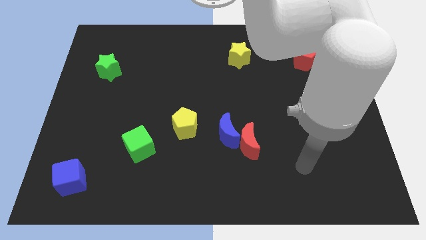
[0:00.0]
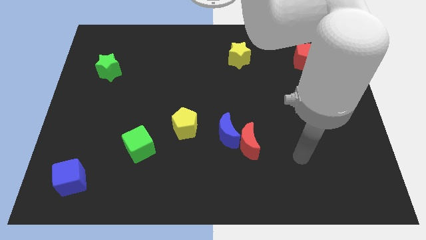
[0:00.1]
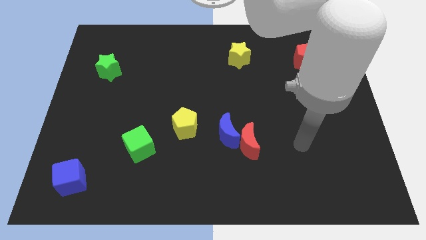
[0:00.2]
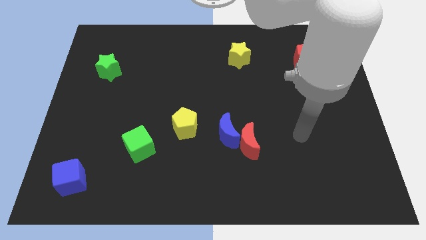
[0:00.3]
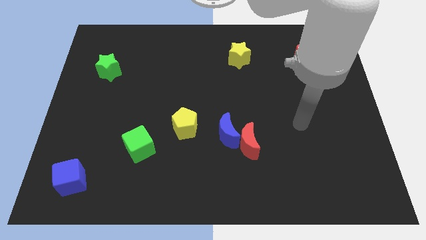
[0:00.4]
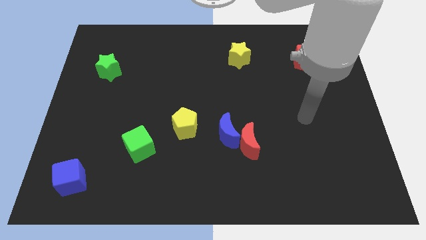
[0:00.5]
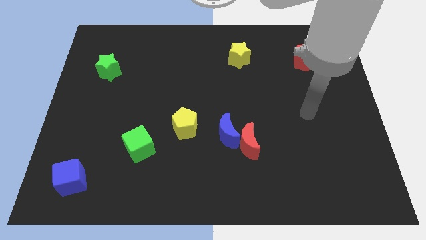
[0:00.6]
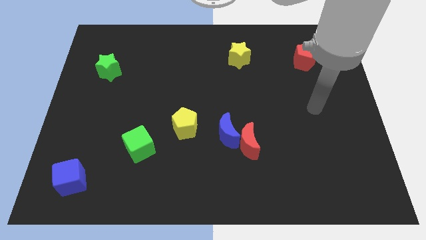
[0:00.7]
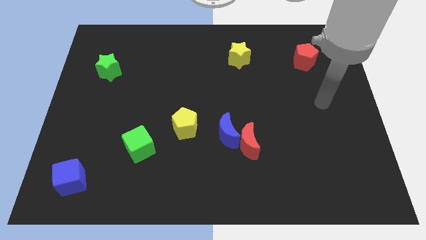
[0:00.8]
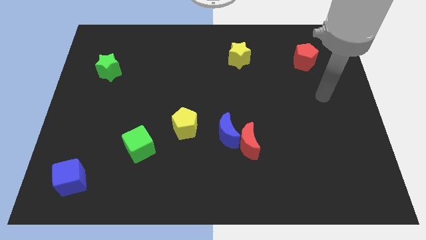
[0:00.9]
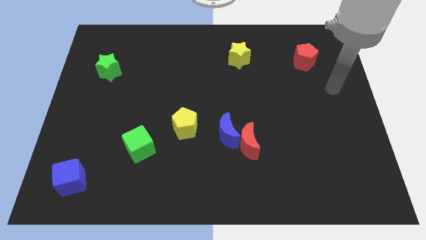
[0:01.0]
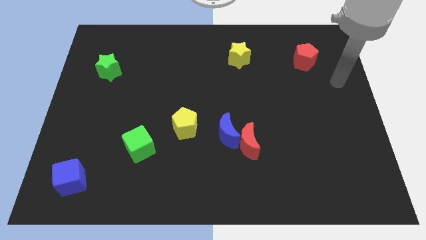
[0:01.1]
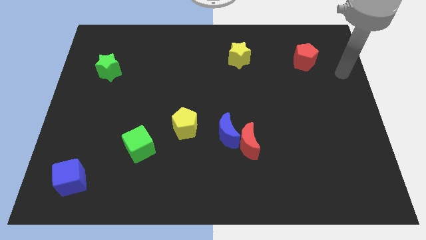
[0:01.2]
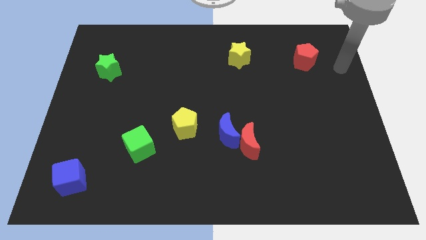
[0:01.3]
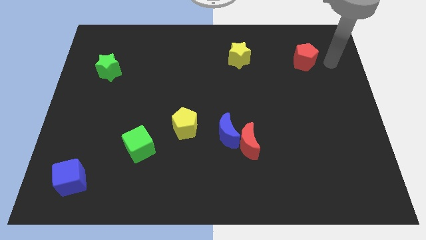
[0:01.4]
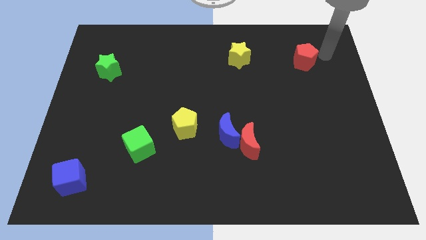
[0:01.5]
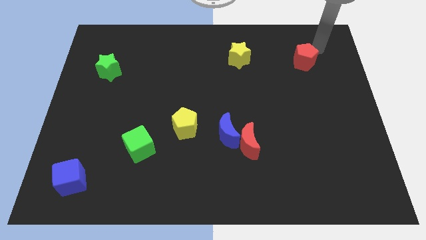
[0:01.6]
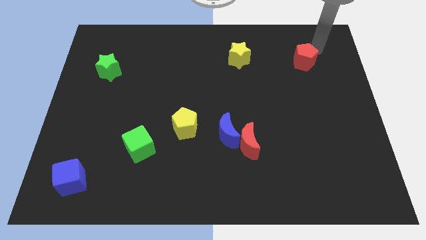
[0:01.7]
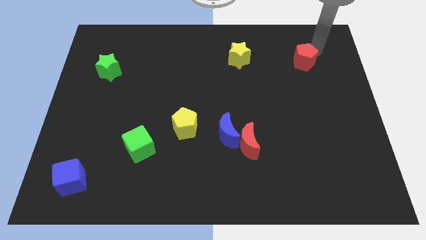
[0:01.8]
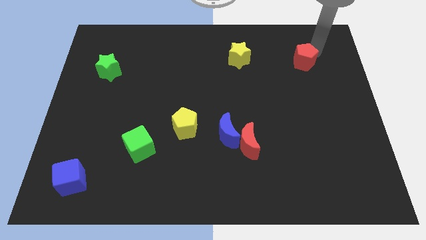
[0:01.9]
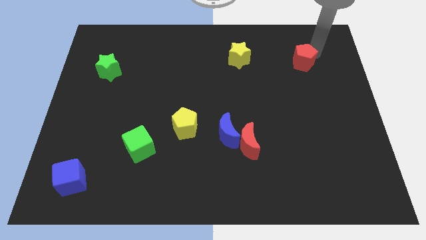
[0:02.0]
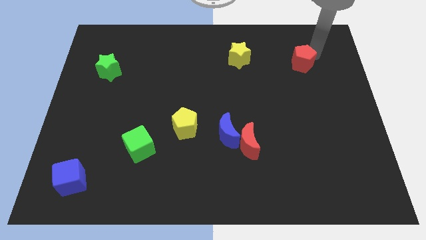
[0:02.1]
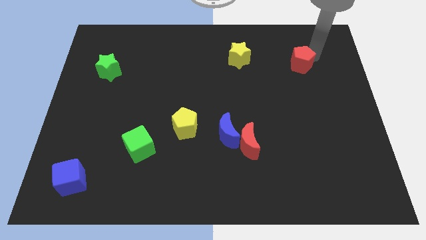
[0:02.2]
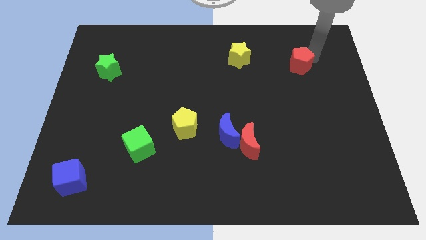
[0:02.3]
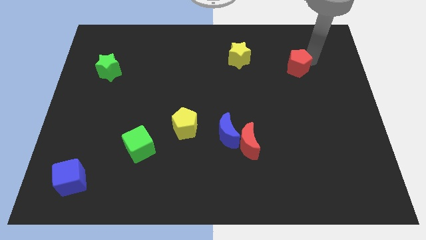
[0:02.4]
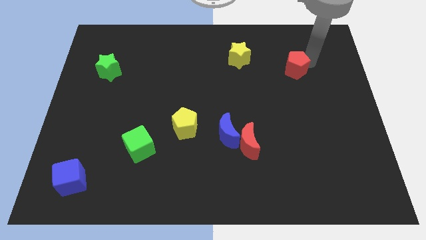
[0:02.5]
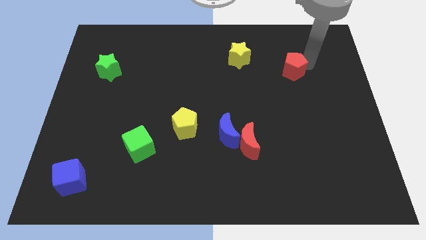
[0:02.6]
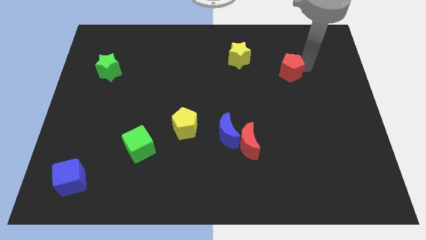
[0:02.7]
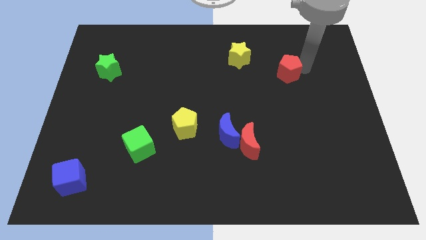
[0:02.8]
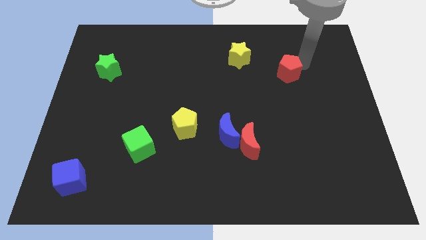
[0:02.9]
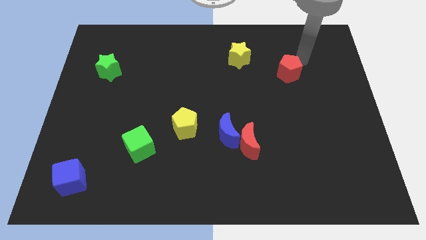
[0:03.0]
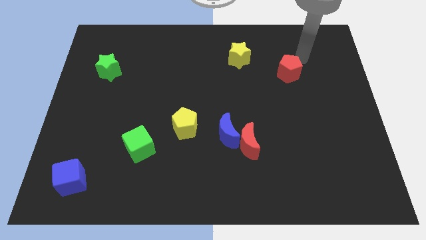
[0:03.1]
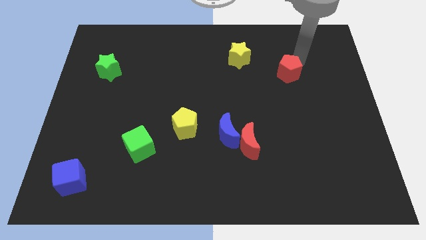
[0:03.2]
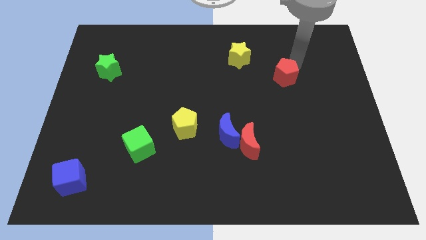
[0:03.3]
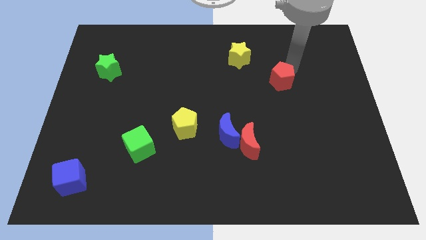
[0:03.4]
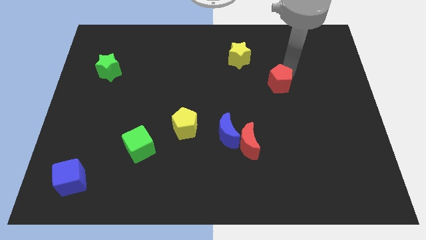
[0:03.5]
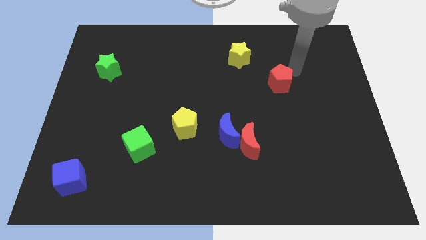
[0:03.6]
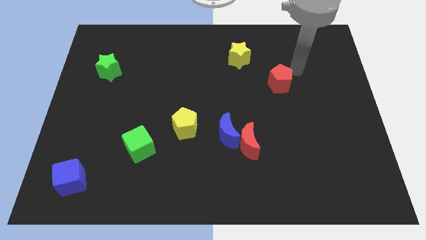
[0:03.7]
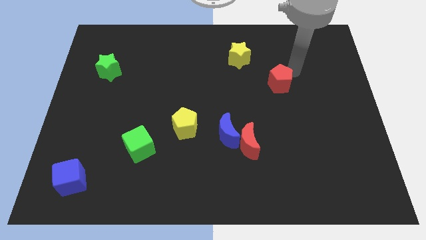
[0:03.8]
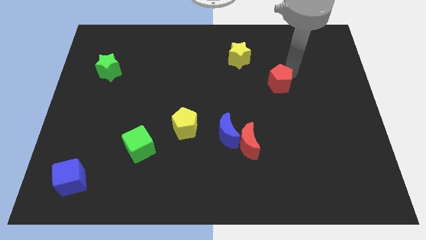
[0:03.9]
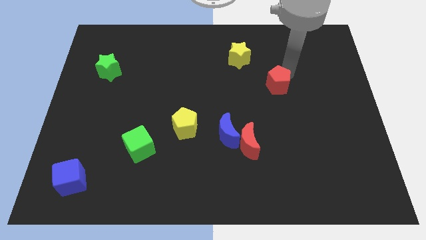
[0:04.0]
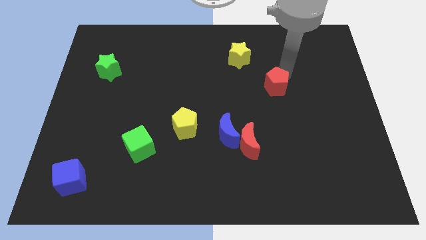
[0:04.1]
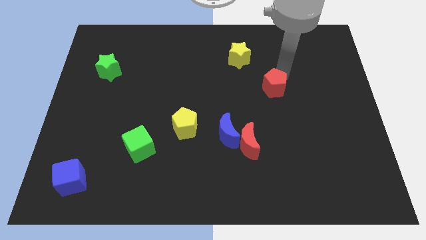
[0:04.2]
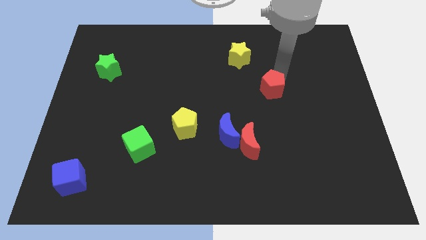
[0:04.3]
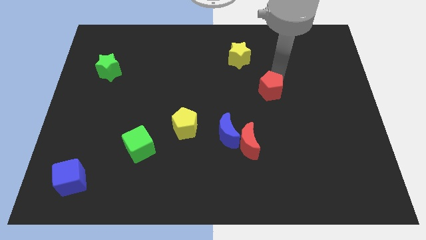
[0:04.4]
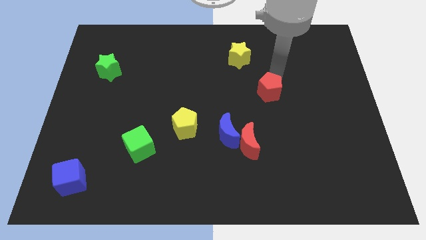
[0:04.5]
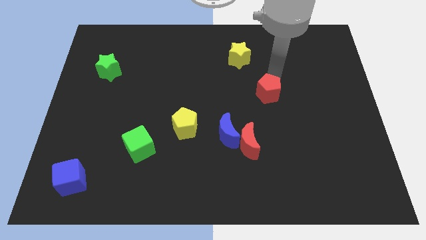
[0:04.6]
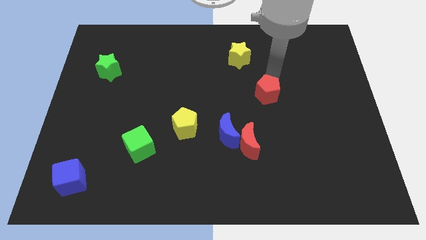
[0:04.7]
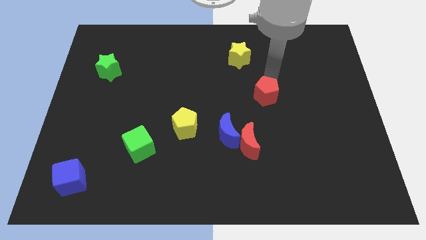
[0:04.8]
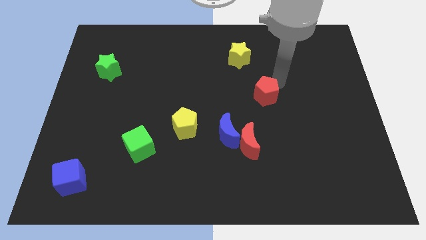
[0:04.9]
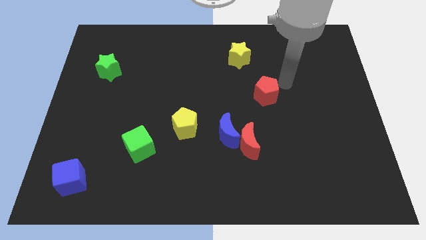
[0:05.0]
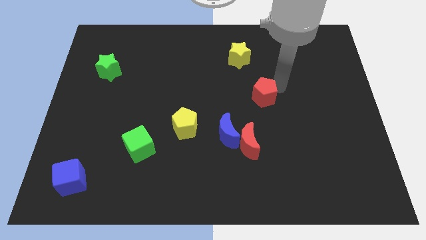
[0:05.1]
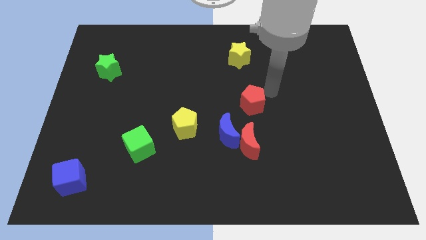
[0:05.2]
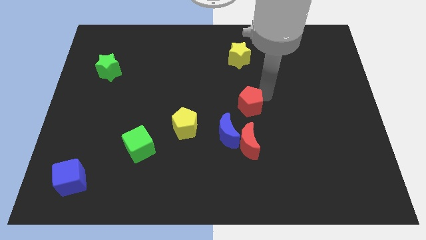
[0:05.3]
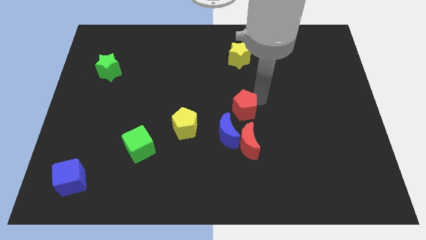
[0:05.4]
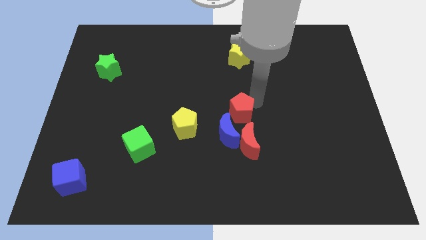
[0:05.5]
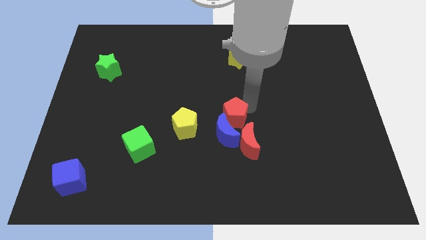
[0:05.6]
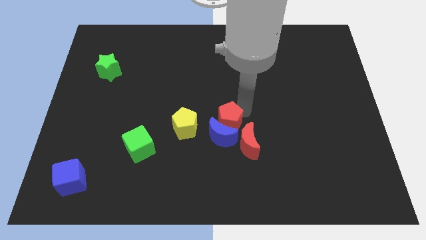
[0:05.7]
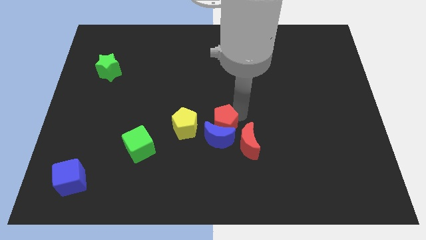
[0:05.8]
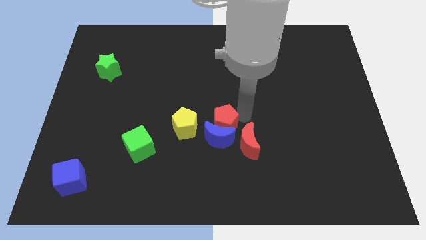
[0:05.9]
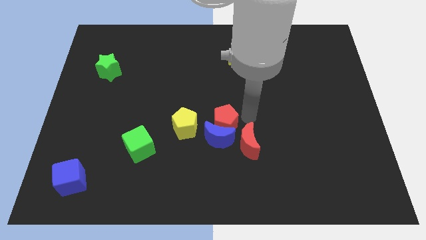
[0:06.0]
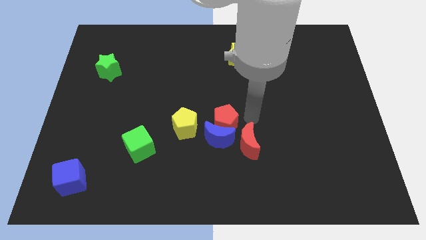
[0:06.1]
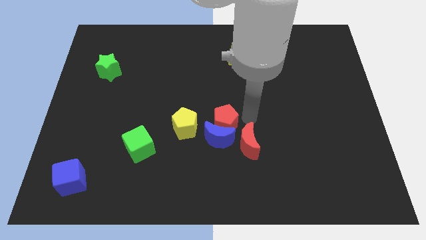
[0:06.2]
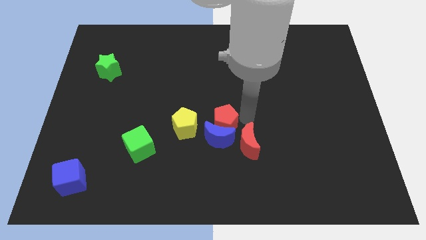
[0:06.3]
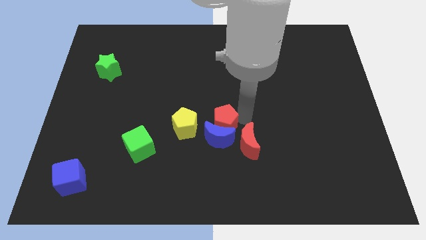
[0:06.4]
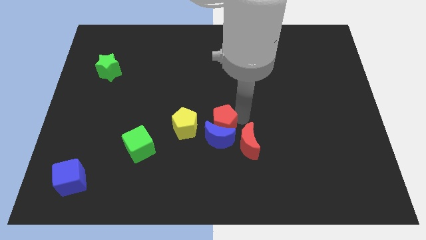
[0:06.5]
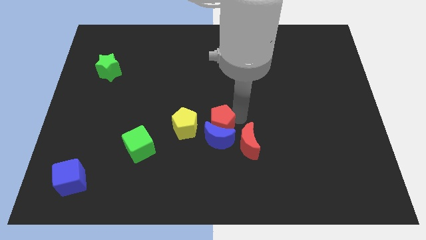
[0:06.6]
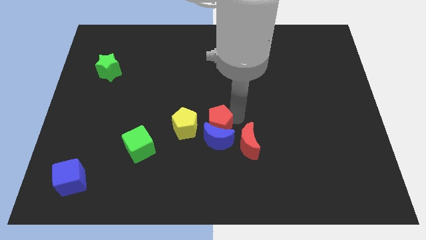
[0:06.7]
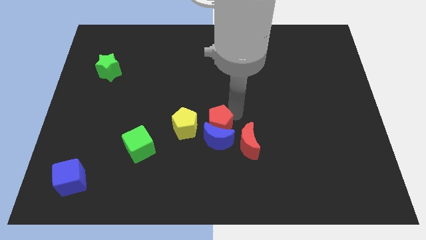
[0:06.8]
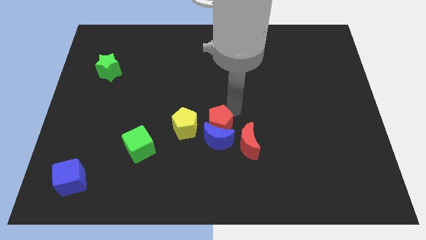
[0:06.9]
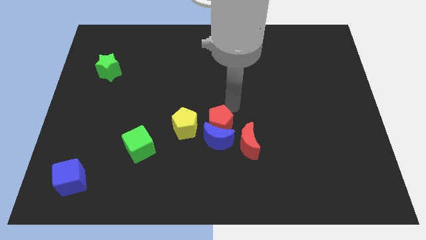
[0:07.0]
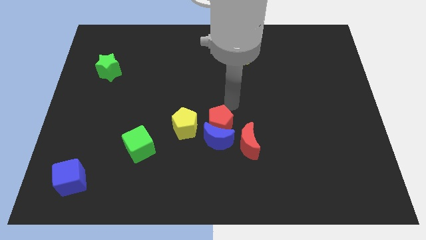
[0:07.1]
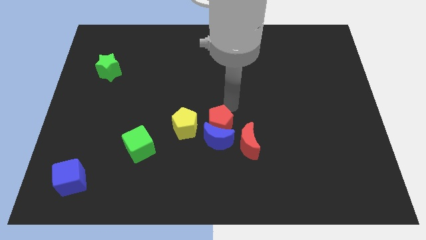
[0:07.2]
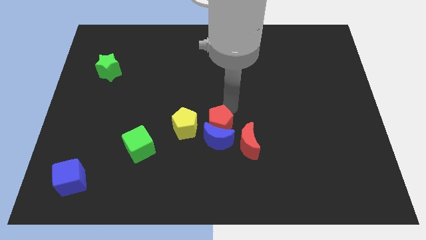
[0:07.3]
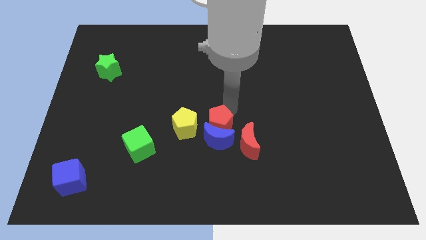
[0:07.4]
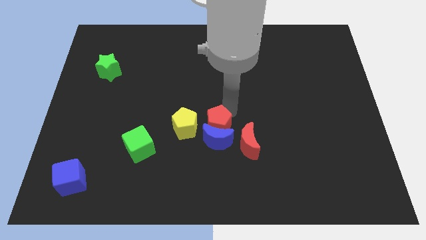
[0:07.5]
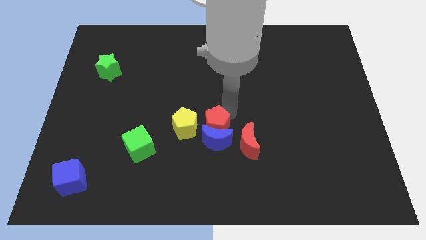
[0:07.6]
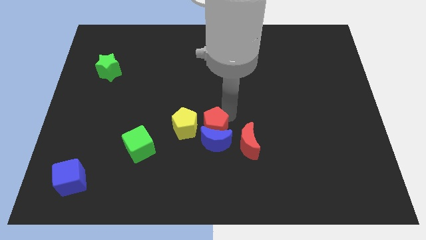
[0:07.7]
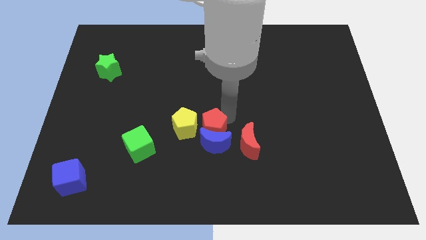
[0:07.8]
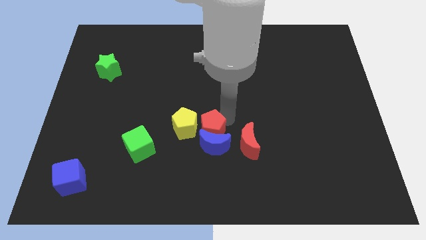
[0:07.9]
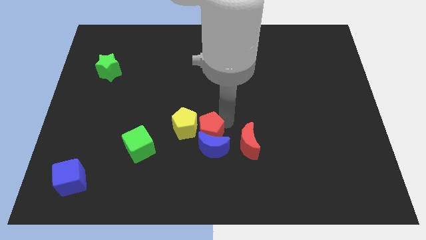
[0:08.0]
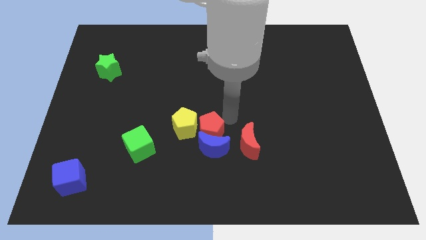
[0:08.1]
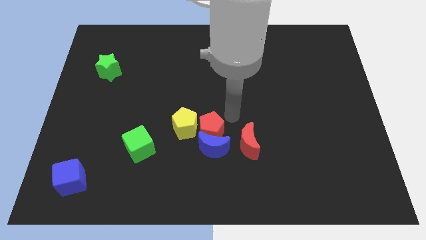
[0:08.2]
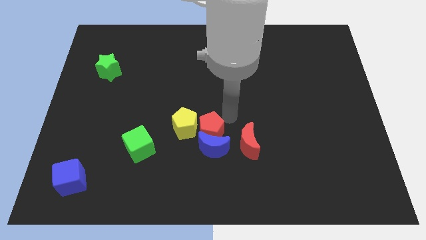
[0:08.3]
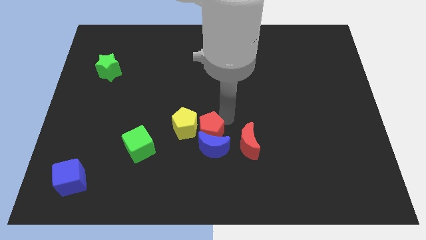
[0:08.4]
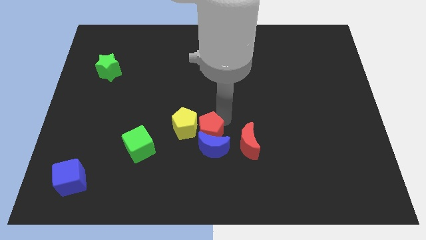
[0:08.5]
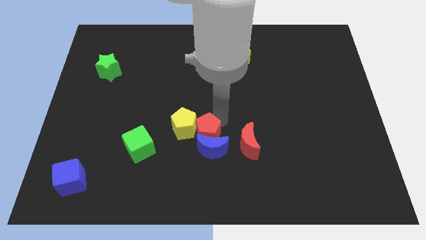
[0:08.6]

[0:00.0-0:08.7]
move the red pentagon to the right side of the green cube
